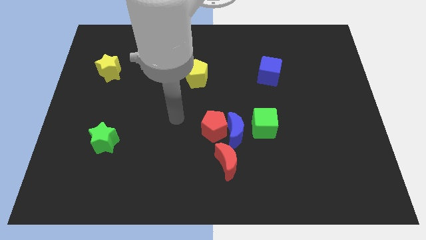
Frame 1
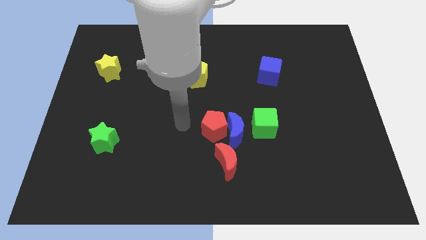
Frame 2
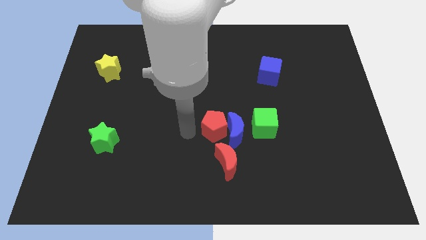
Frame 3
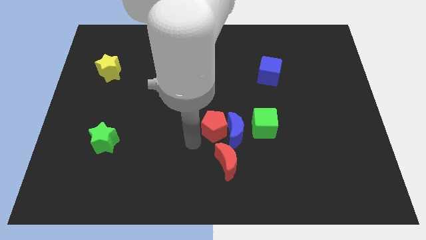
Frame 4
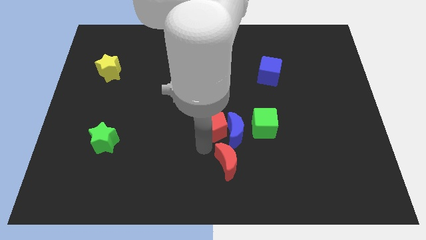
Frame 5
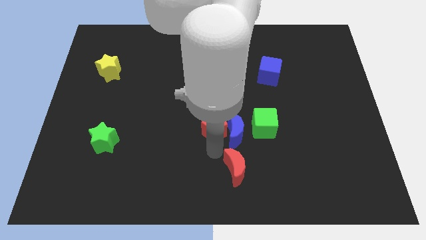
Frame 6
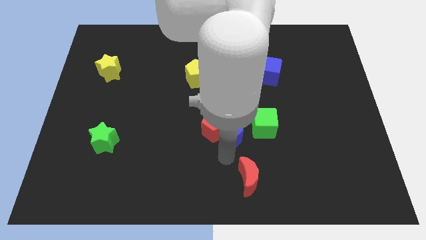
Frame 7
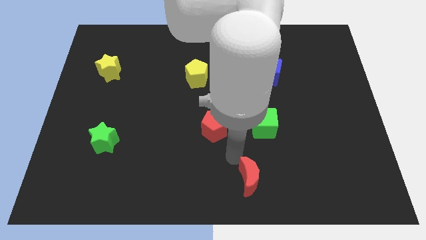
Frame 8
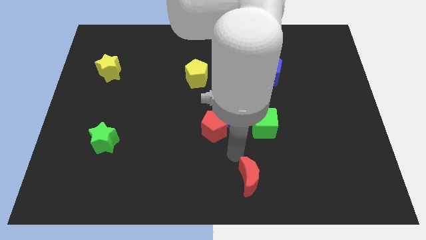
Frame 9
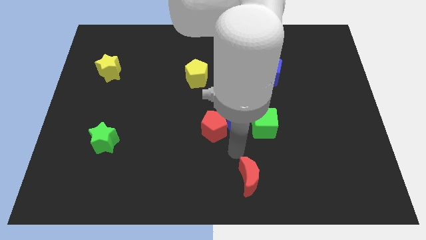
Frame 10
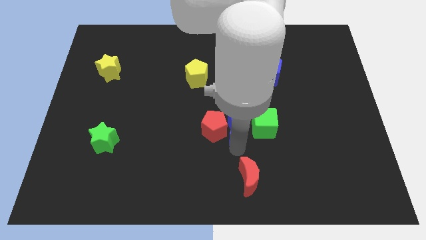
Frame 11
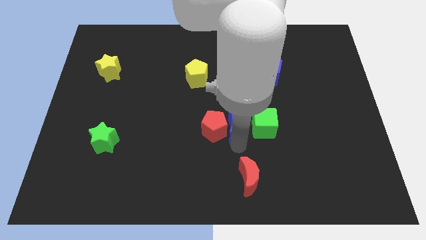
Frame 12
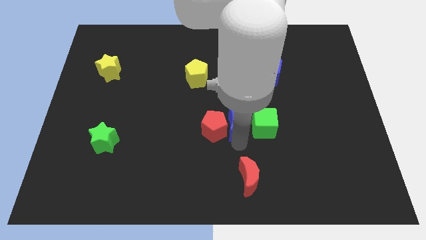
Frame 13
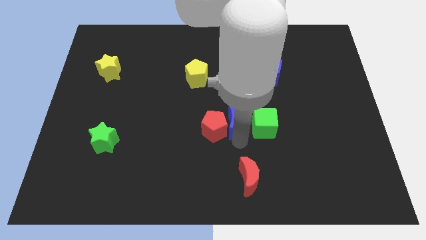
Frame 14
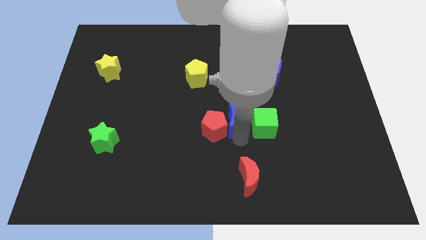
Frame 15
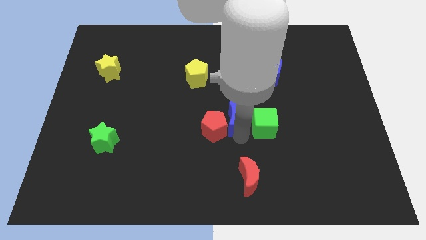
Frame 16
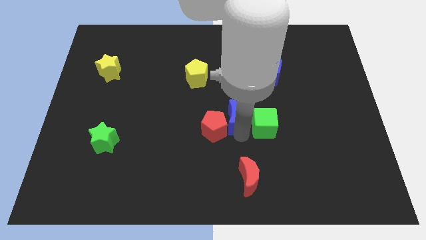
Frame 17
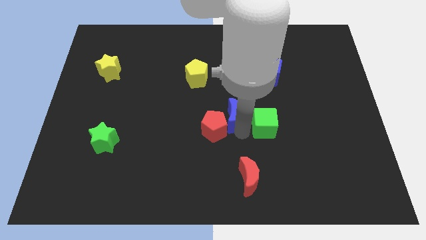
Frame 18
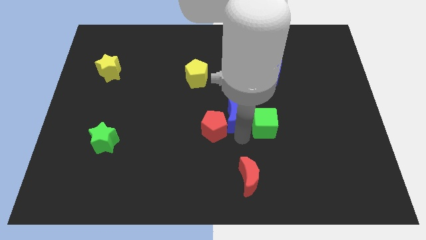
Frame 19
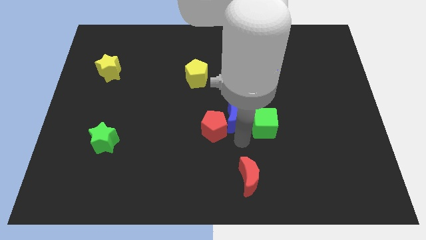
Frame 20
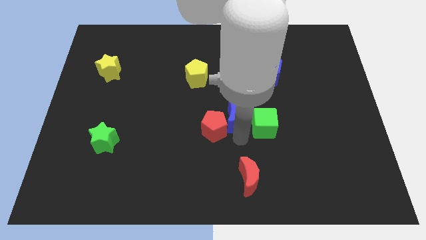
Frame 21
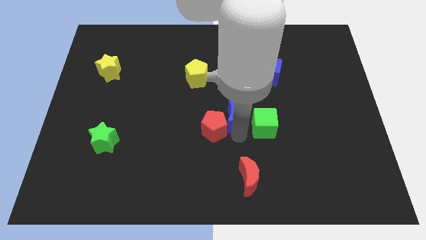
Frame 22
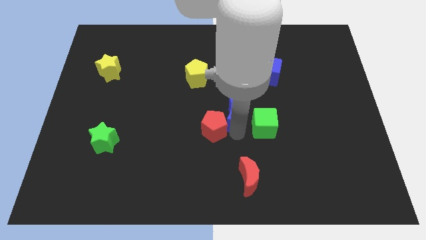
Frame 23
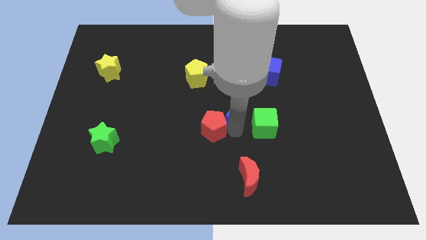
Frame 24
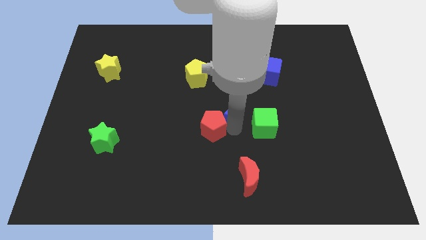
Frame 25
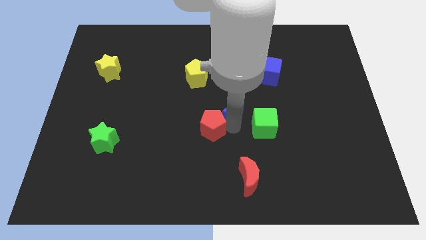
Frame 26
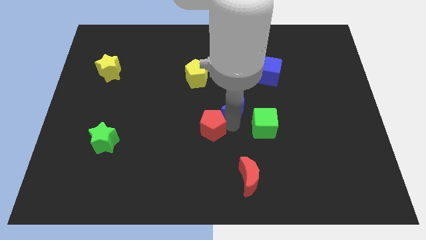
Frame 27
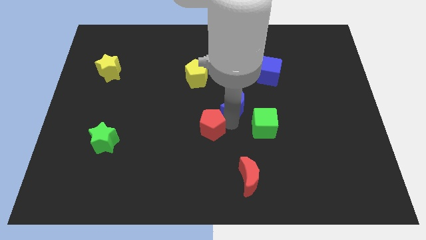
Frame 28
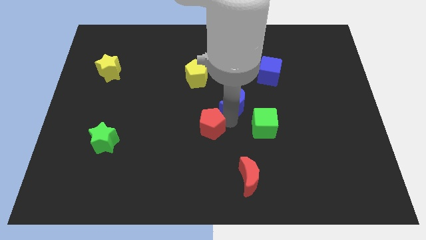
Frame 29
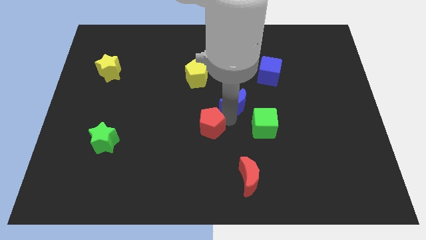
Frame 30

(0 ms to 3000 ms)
pull the blue moon apart from the red pentagon, green cube, and red moon

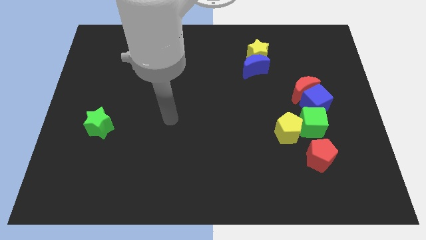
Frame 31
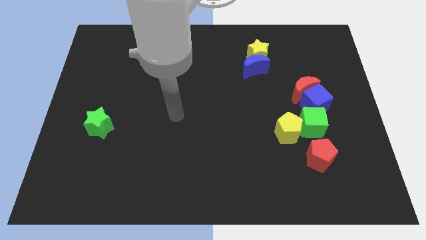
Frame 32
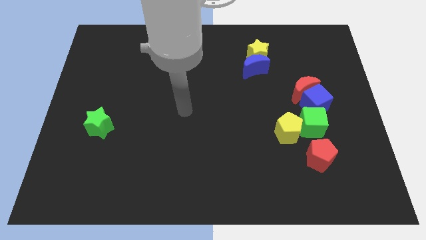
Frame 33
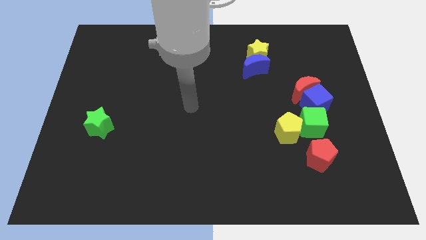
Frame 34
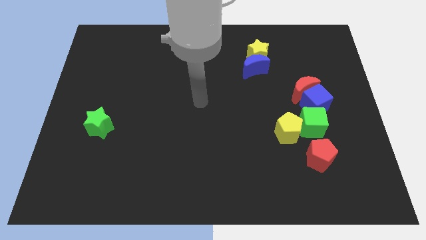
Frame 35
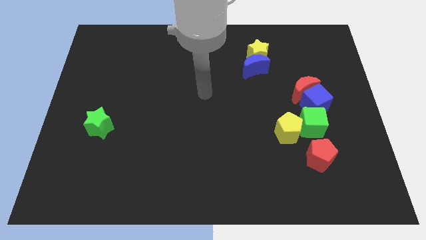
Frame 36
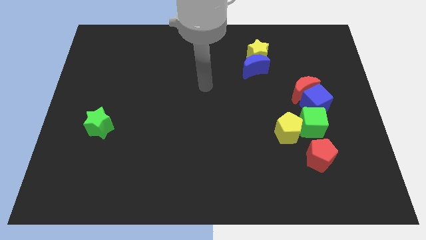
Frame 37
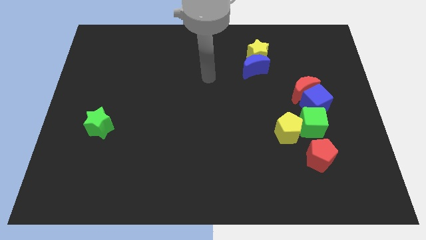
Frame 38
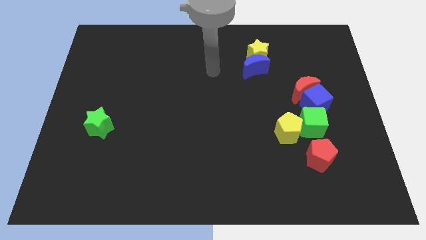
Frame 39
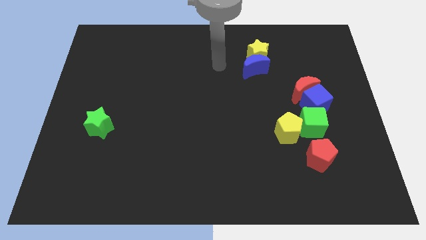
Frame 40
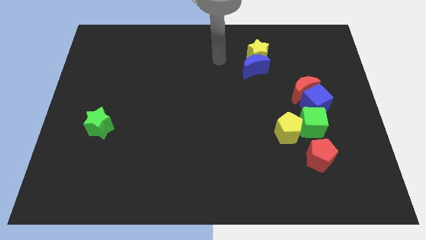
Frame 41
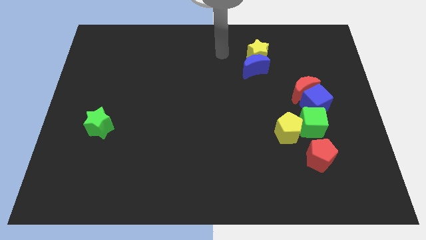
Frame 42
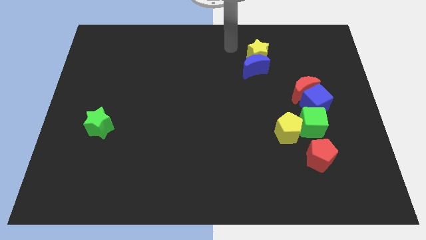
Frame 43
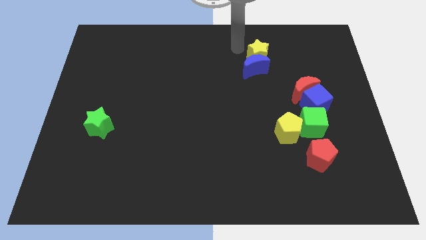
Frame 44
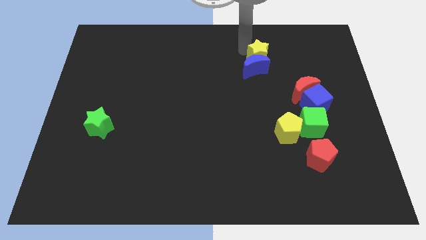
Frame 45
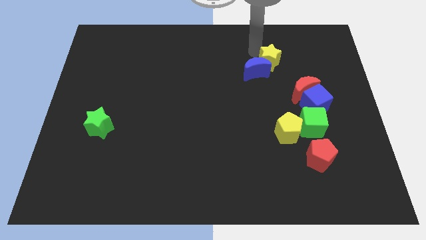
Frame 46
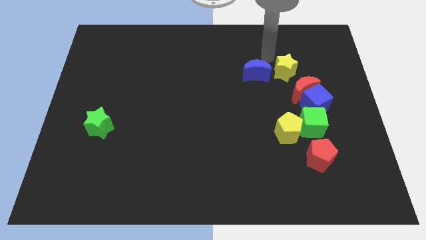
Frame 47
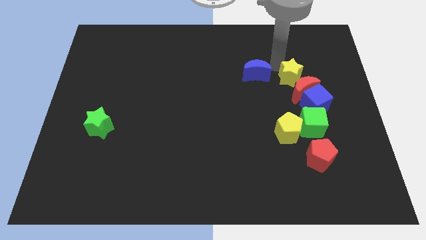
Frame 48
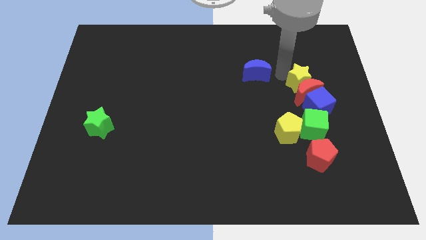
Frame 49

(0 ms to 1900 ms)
separate the blue moon from the yellow star

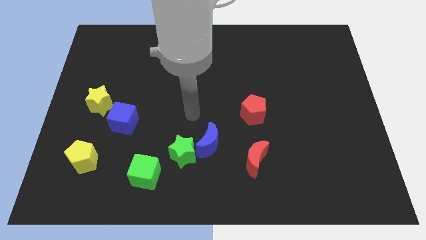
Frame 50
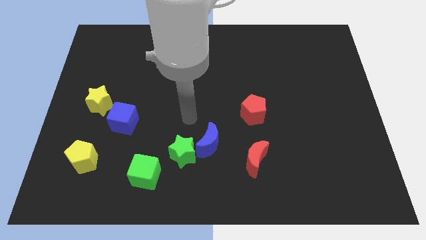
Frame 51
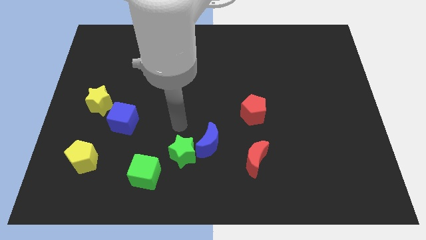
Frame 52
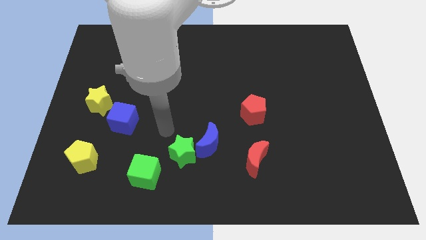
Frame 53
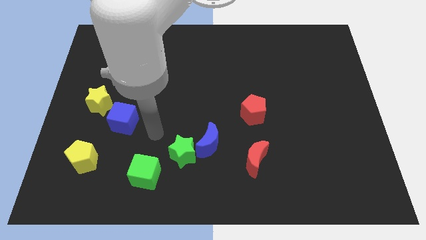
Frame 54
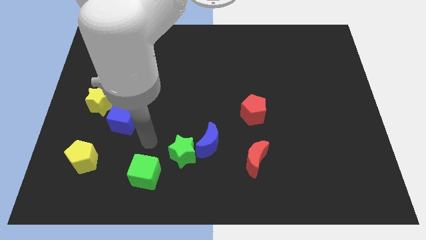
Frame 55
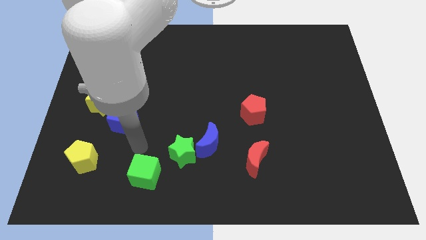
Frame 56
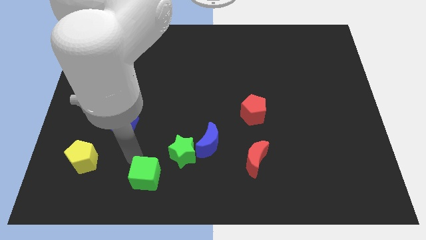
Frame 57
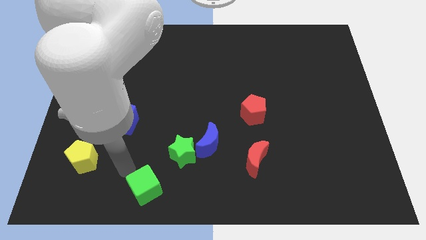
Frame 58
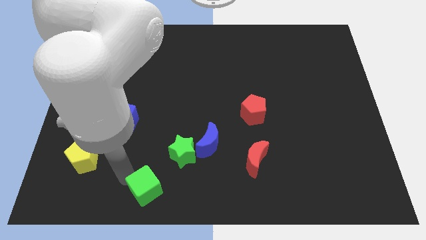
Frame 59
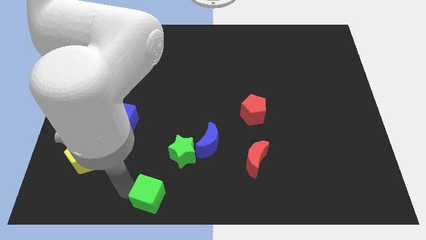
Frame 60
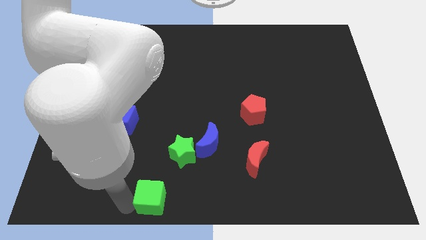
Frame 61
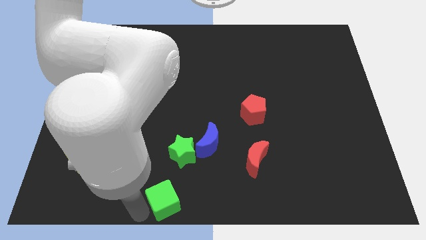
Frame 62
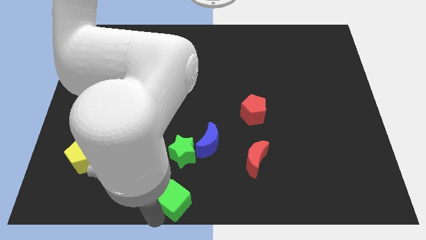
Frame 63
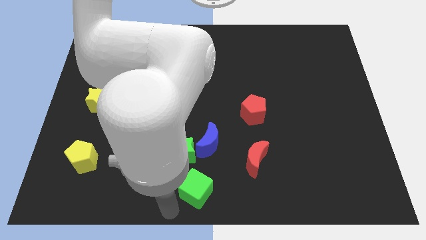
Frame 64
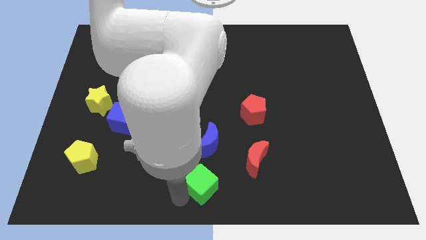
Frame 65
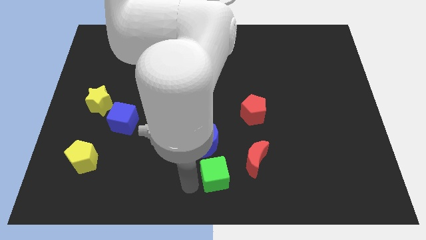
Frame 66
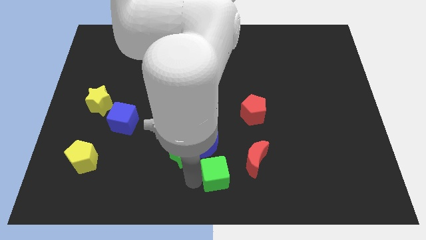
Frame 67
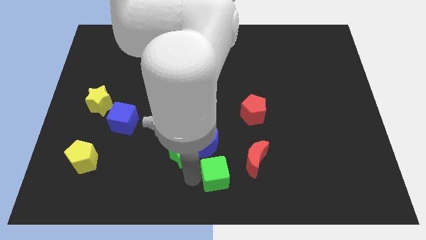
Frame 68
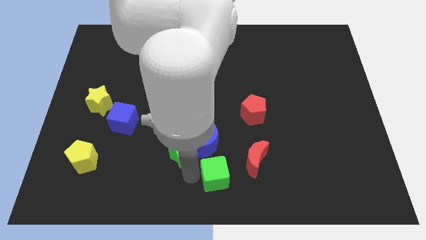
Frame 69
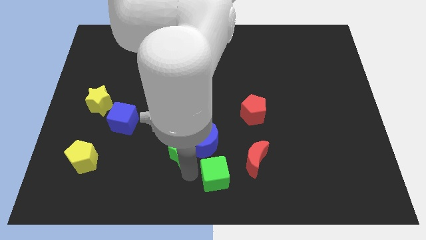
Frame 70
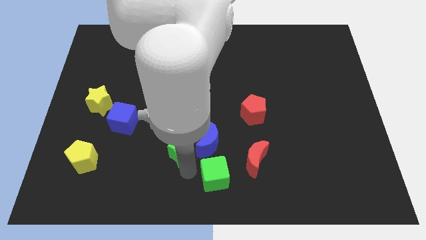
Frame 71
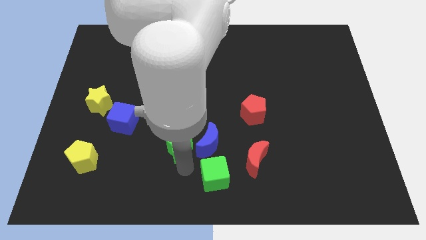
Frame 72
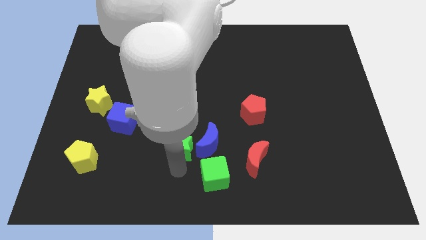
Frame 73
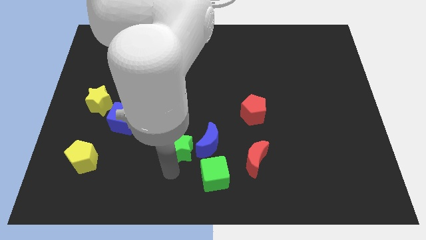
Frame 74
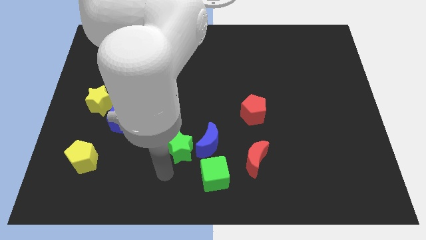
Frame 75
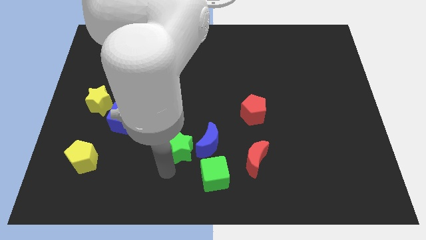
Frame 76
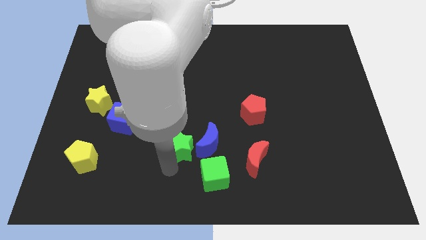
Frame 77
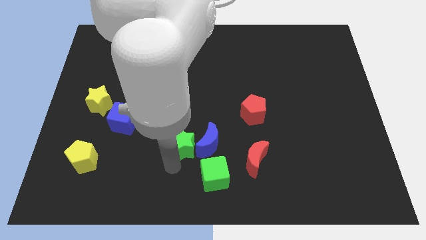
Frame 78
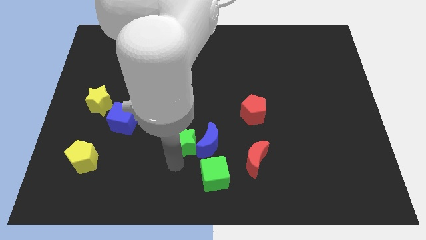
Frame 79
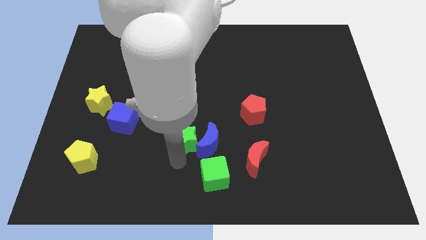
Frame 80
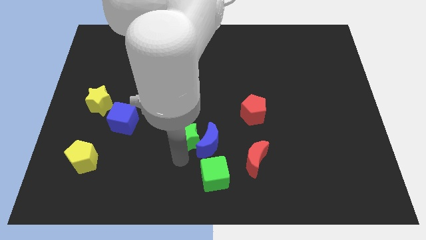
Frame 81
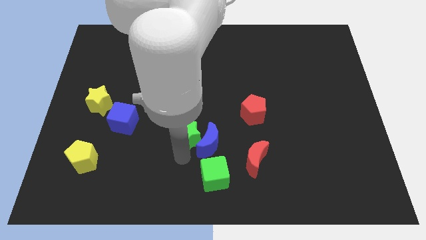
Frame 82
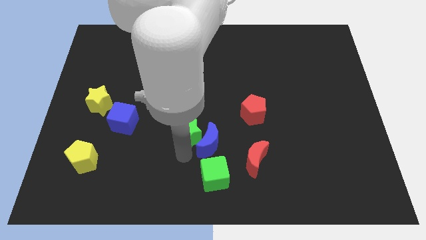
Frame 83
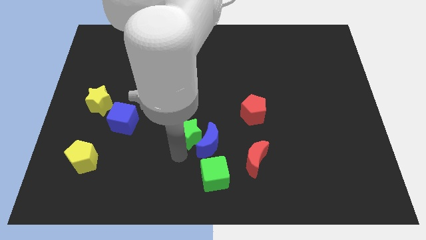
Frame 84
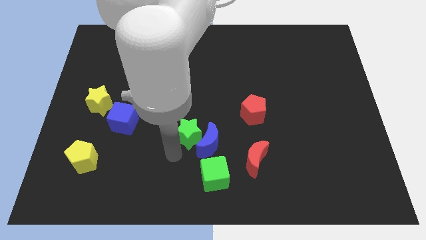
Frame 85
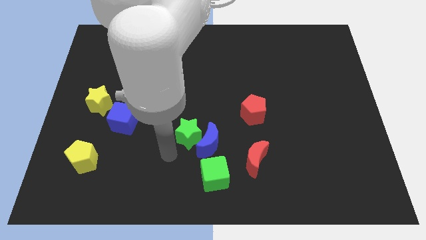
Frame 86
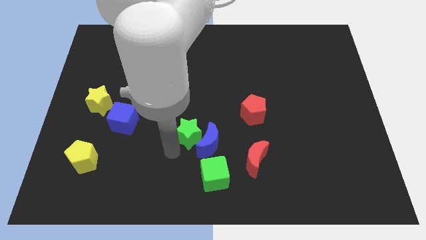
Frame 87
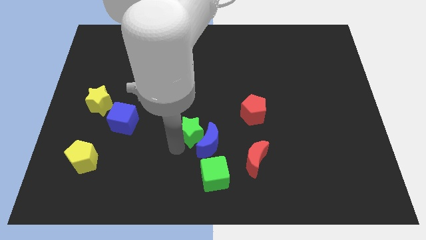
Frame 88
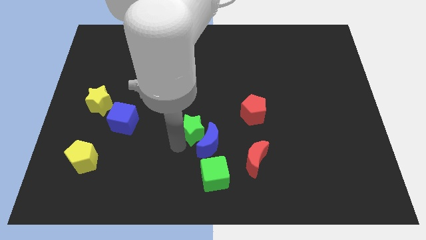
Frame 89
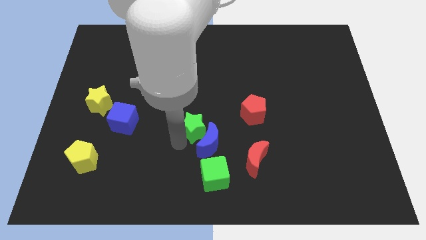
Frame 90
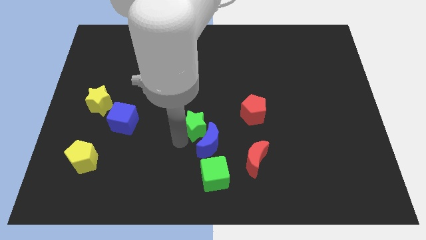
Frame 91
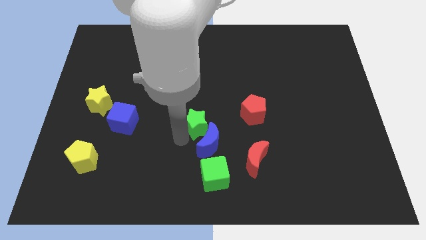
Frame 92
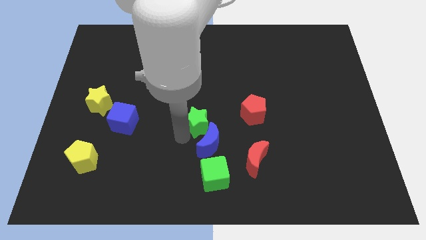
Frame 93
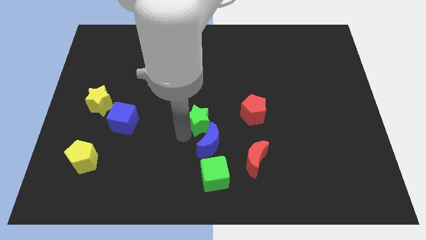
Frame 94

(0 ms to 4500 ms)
pull the green star apart from the blue moon and green cube

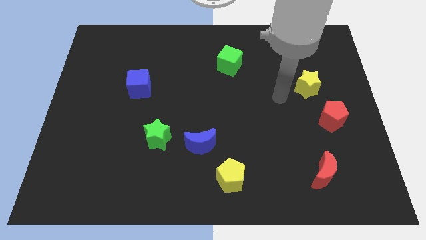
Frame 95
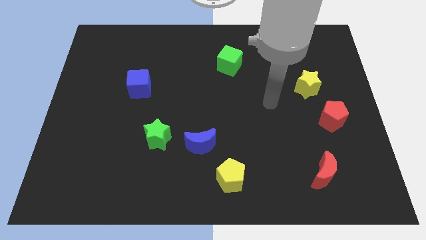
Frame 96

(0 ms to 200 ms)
pull the green star apart from the blue moon
